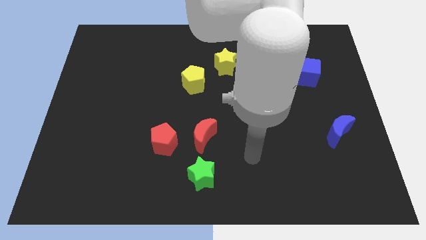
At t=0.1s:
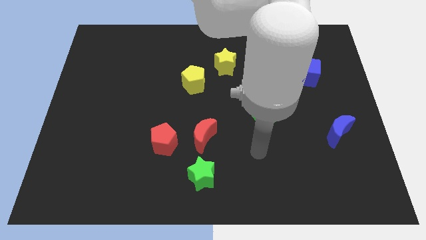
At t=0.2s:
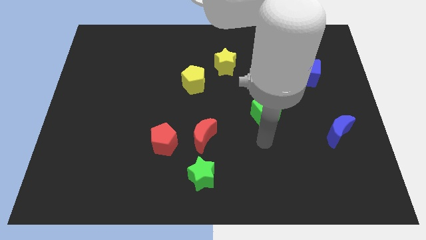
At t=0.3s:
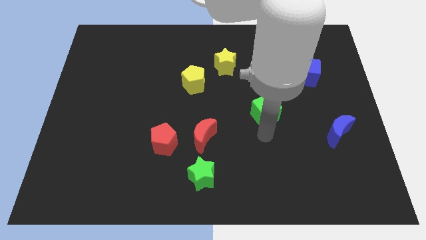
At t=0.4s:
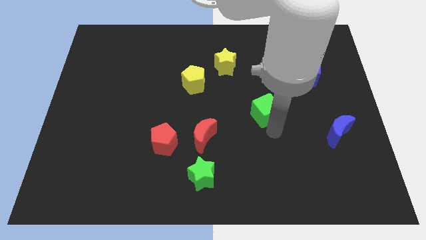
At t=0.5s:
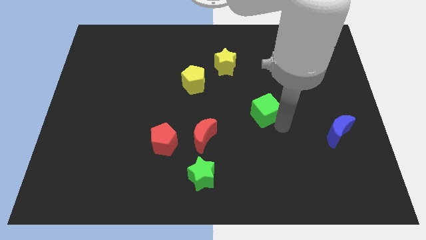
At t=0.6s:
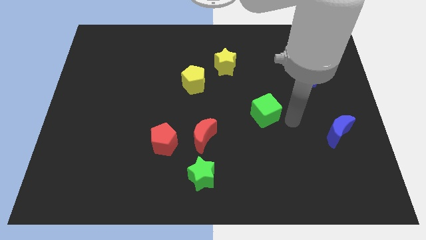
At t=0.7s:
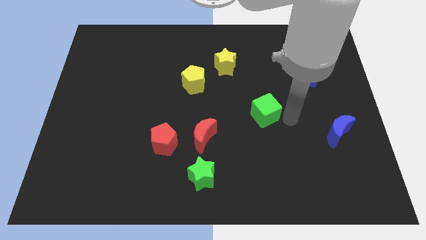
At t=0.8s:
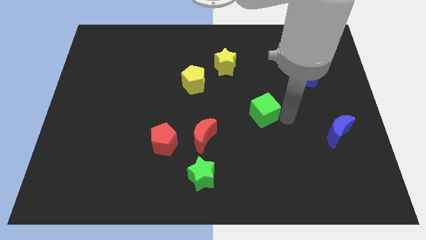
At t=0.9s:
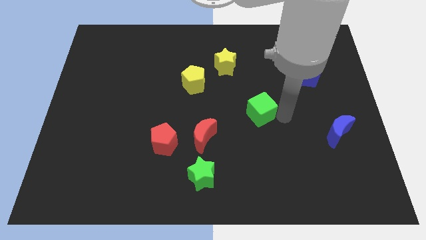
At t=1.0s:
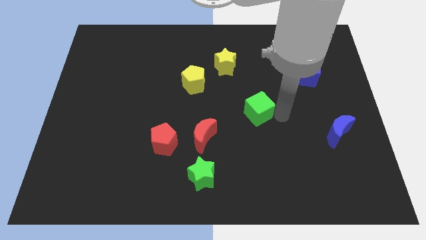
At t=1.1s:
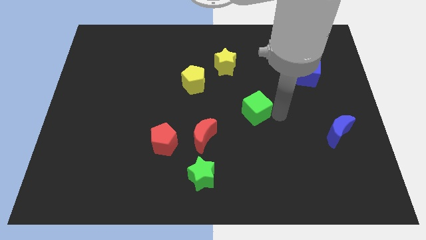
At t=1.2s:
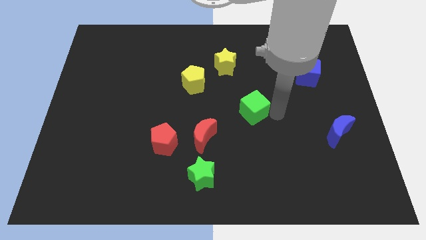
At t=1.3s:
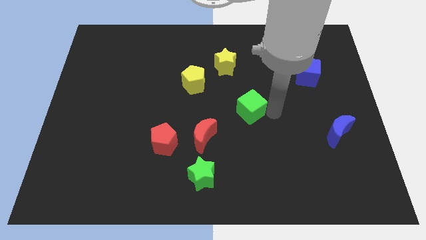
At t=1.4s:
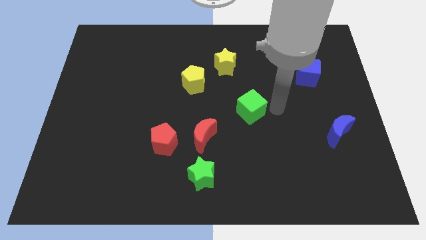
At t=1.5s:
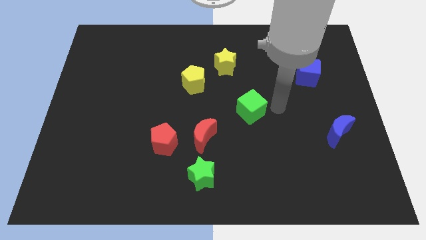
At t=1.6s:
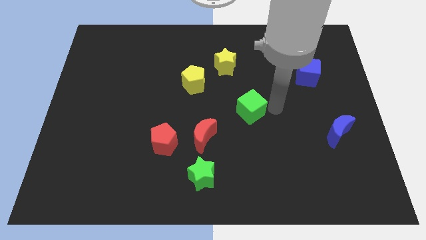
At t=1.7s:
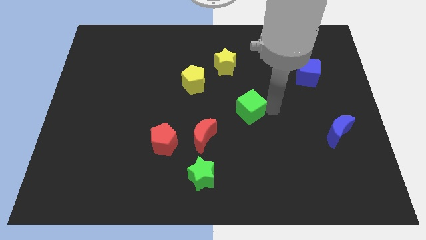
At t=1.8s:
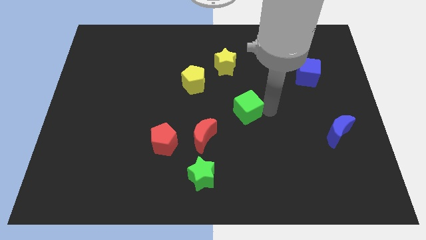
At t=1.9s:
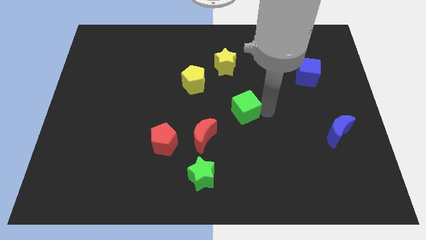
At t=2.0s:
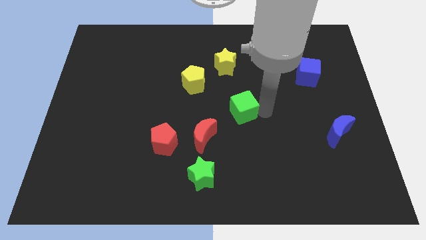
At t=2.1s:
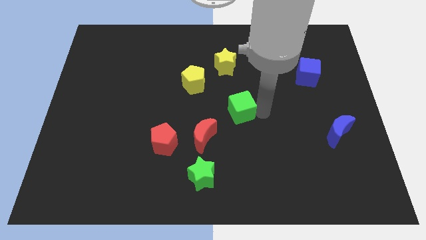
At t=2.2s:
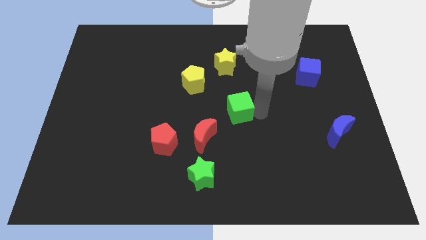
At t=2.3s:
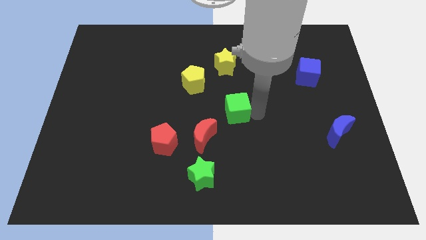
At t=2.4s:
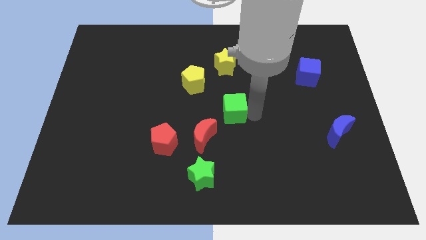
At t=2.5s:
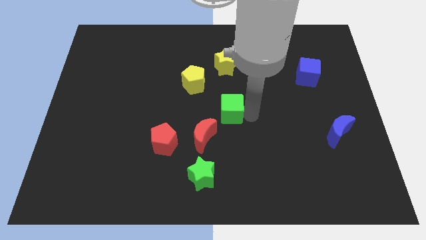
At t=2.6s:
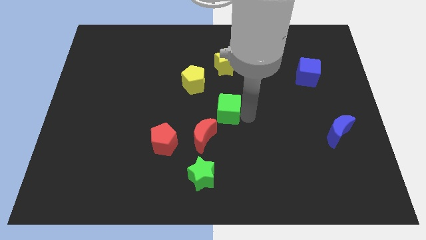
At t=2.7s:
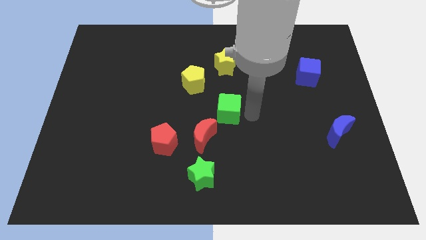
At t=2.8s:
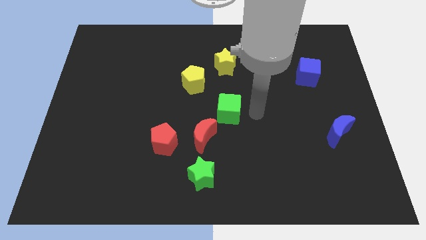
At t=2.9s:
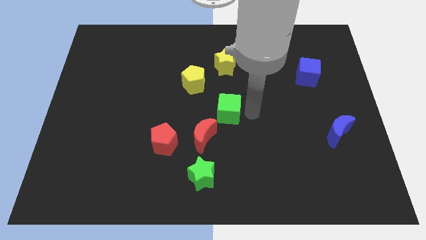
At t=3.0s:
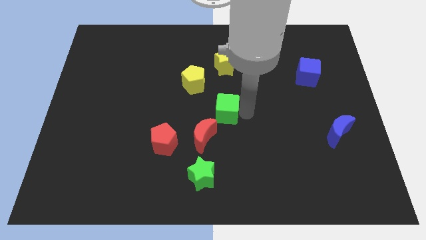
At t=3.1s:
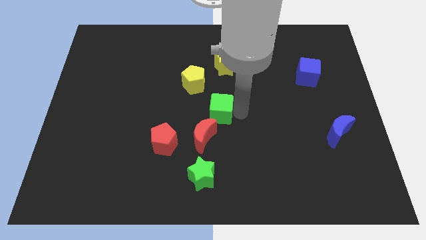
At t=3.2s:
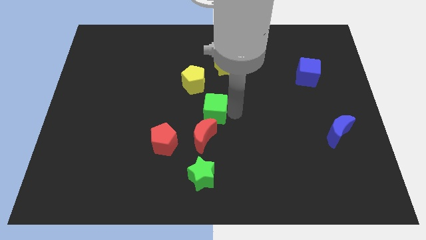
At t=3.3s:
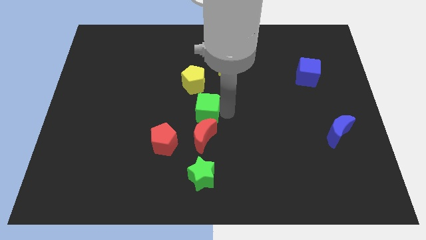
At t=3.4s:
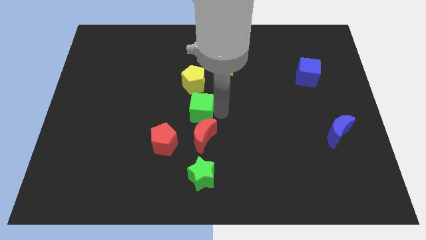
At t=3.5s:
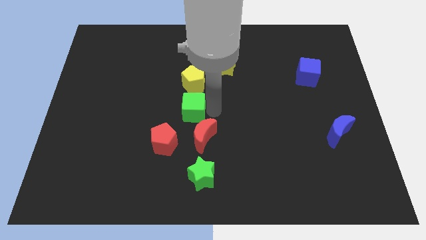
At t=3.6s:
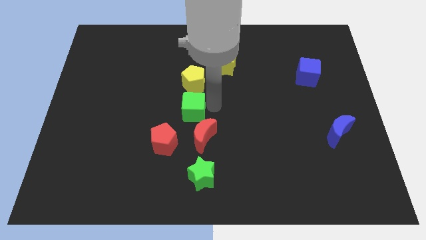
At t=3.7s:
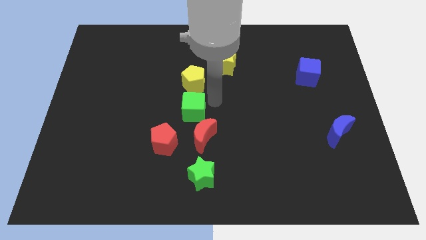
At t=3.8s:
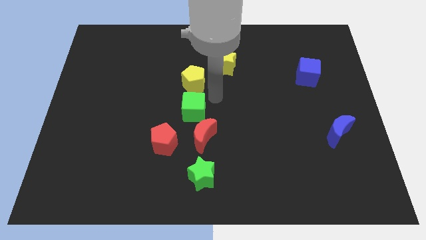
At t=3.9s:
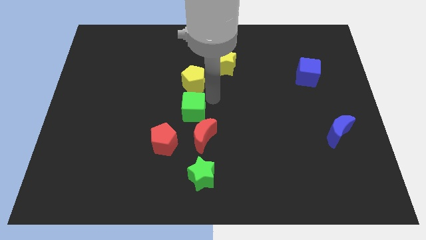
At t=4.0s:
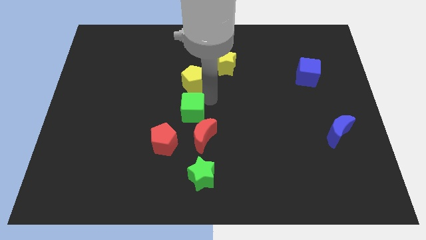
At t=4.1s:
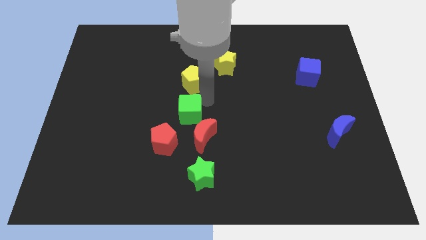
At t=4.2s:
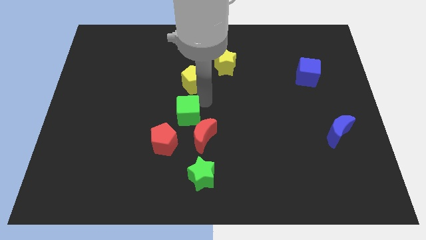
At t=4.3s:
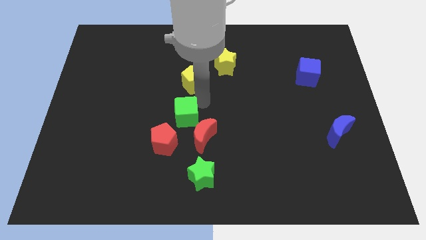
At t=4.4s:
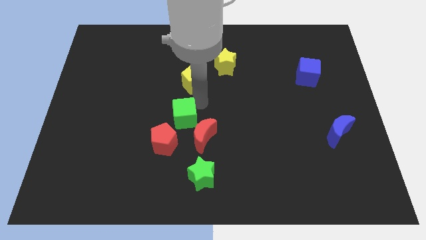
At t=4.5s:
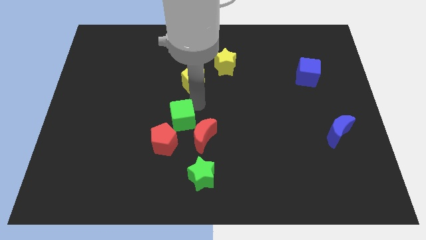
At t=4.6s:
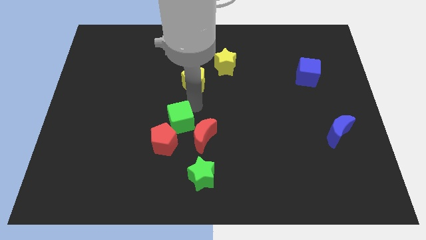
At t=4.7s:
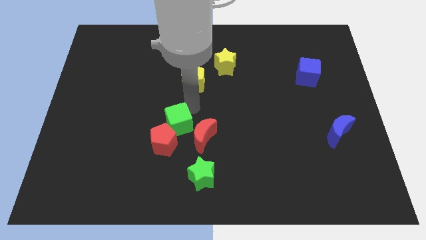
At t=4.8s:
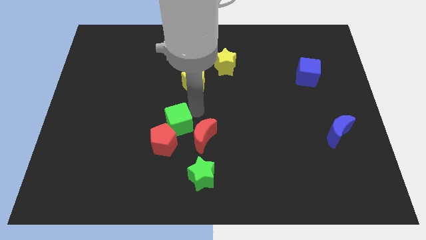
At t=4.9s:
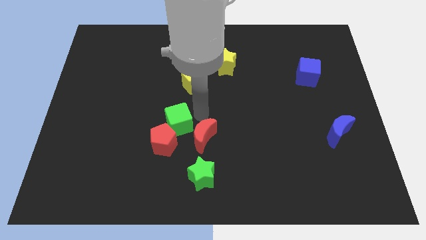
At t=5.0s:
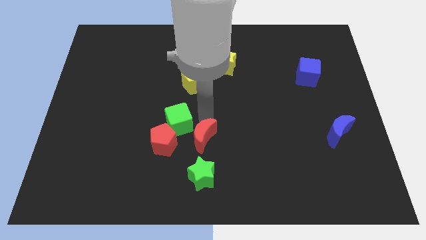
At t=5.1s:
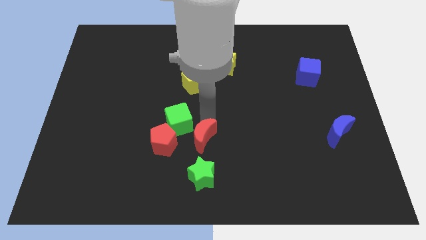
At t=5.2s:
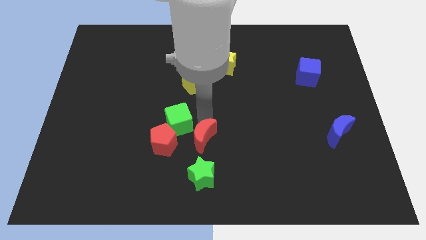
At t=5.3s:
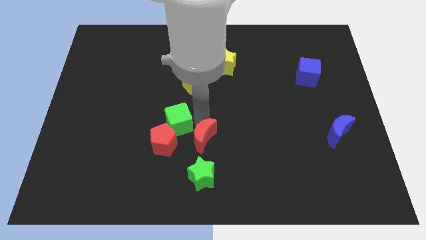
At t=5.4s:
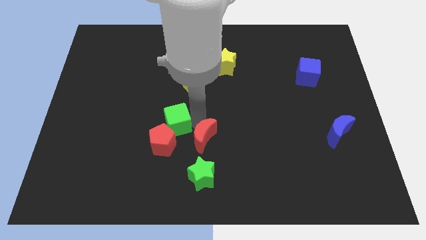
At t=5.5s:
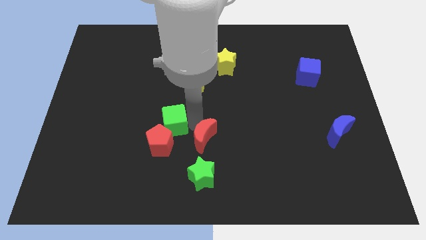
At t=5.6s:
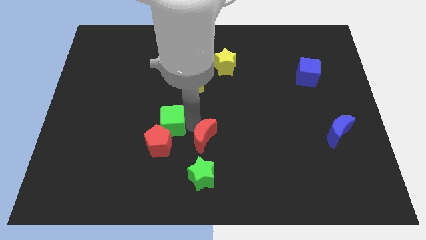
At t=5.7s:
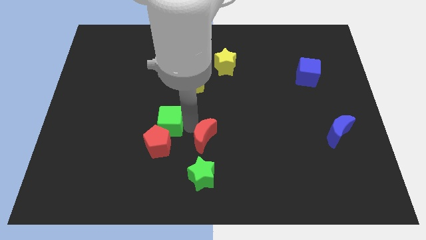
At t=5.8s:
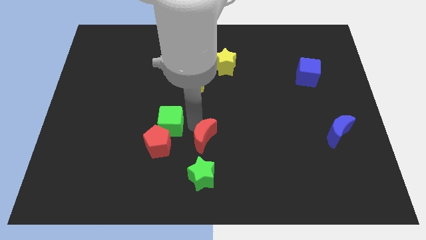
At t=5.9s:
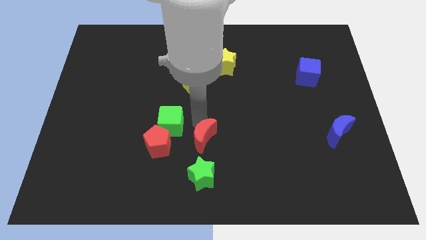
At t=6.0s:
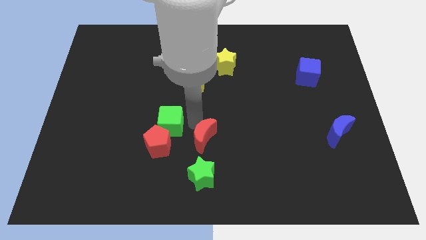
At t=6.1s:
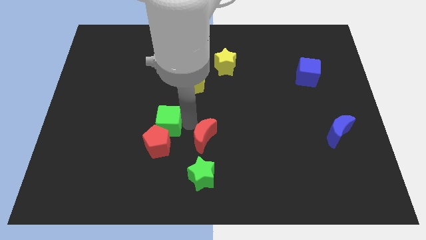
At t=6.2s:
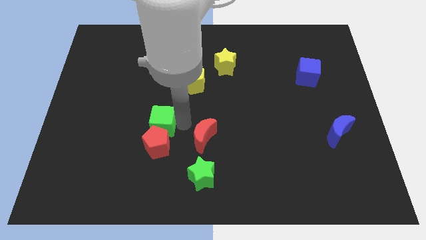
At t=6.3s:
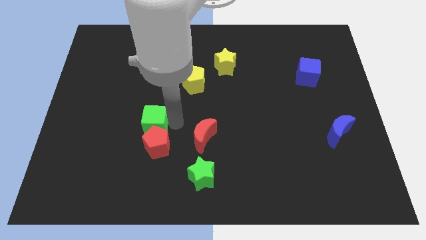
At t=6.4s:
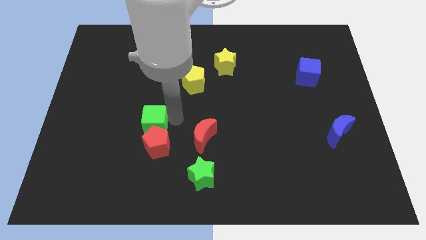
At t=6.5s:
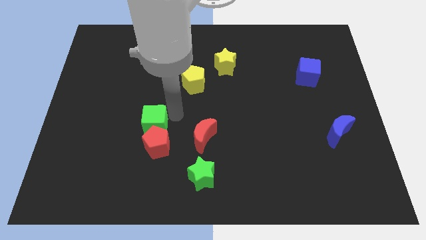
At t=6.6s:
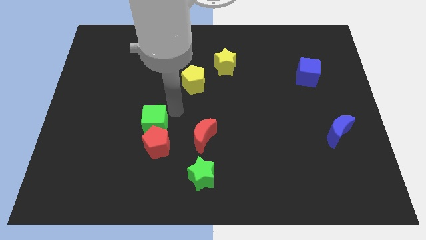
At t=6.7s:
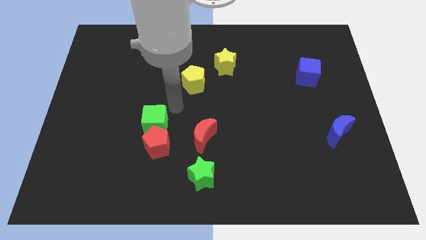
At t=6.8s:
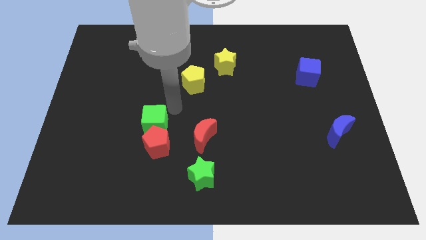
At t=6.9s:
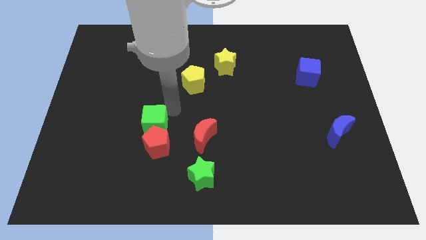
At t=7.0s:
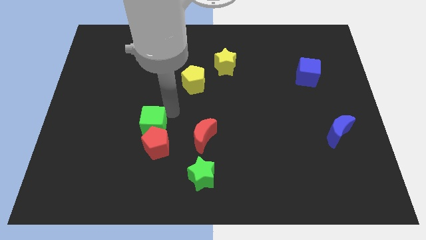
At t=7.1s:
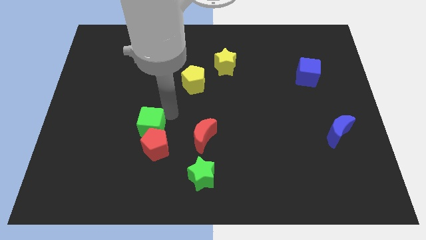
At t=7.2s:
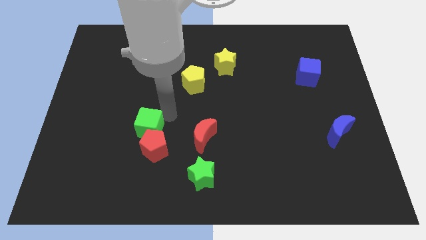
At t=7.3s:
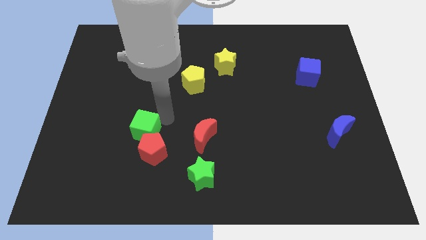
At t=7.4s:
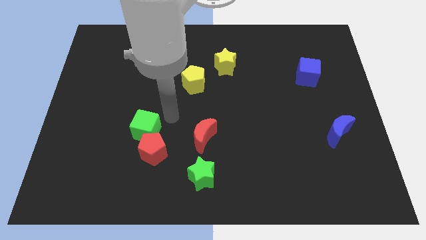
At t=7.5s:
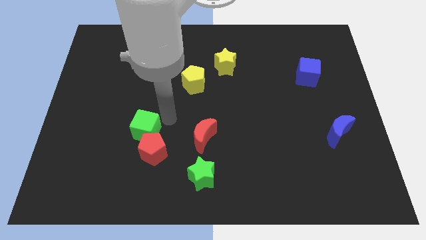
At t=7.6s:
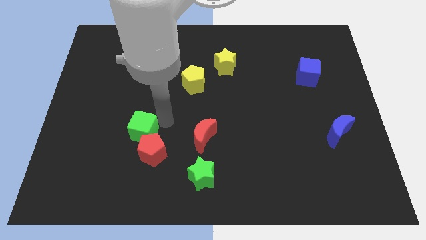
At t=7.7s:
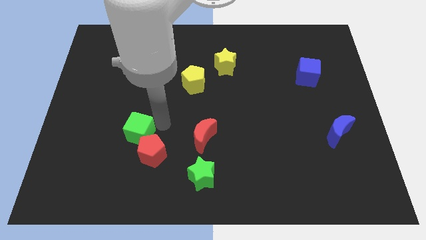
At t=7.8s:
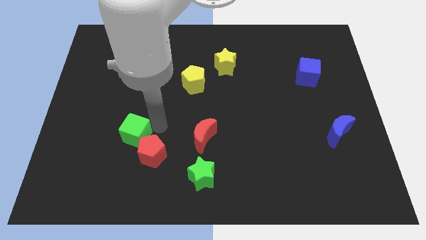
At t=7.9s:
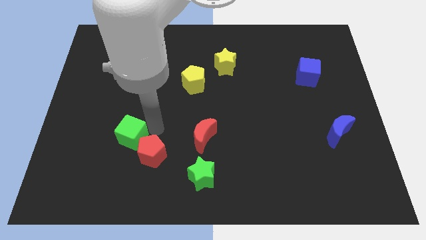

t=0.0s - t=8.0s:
move the green cube to the left of the red pentagon

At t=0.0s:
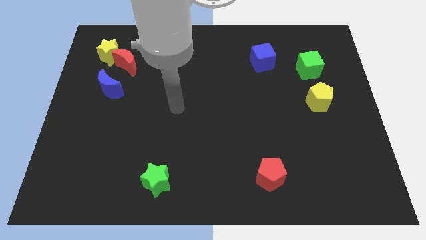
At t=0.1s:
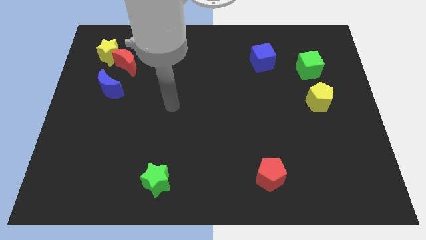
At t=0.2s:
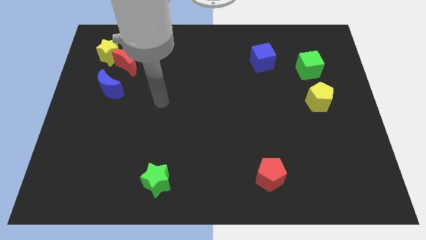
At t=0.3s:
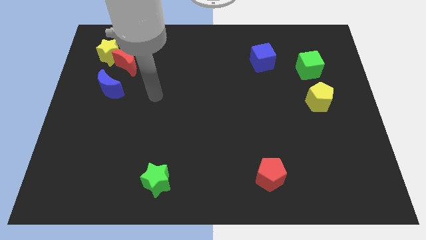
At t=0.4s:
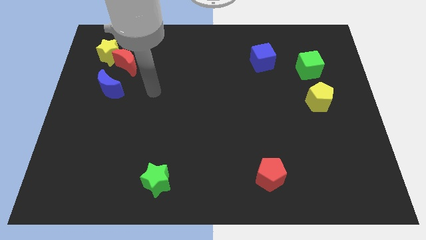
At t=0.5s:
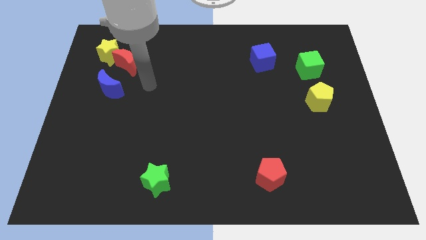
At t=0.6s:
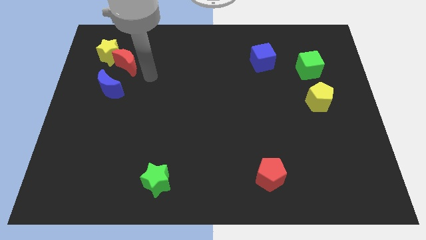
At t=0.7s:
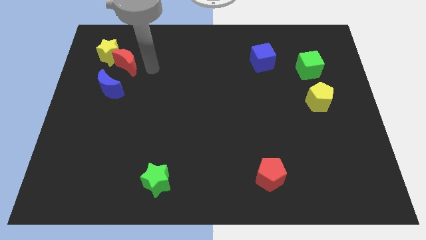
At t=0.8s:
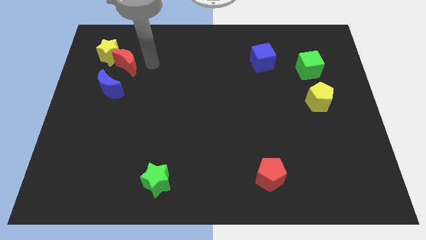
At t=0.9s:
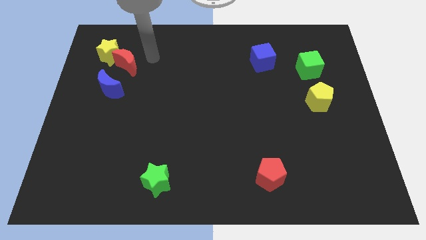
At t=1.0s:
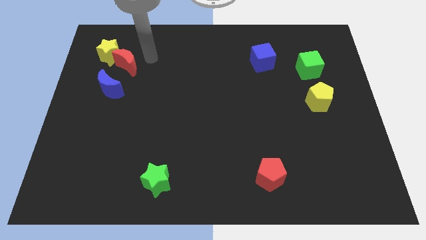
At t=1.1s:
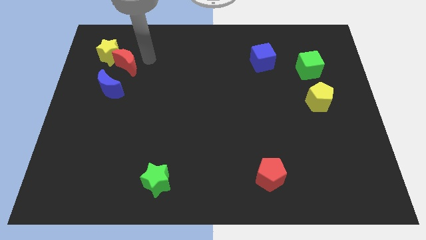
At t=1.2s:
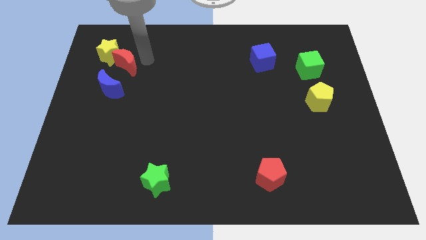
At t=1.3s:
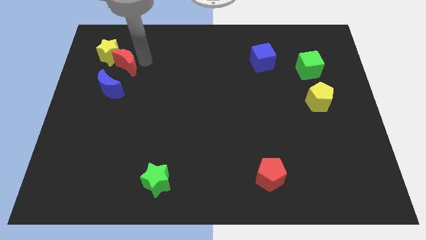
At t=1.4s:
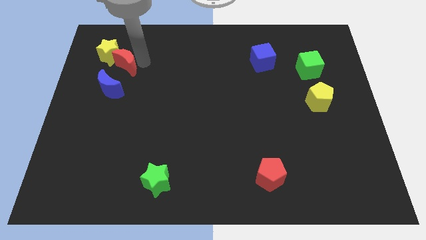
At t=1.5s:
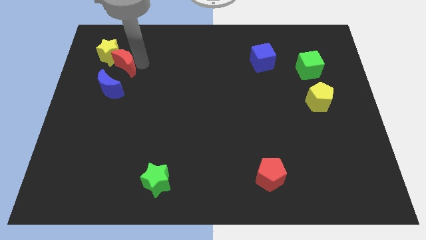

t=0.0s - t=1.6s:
push the red moon to the bottom side of the yellow star
